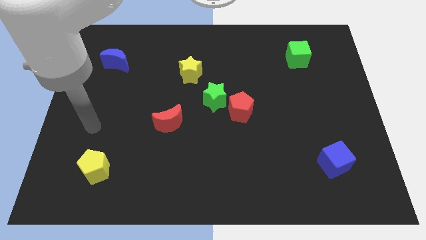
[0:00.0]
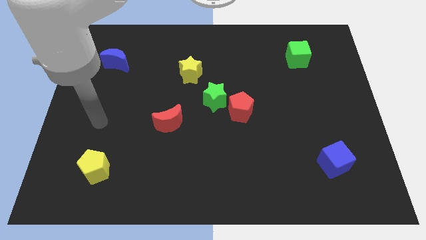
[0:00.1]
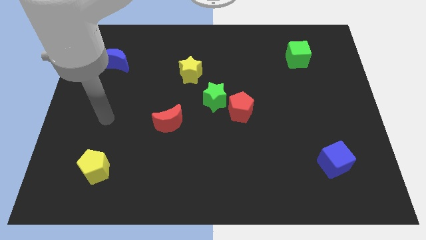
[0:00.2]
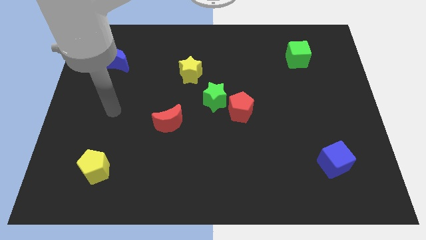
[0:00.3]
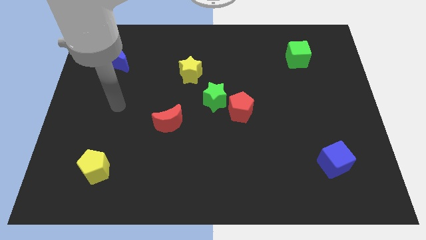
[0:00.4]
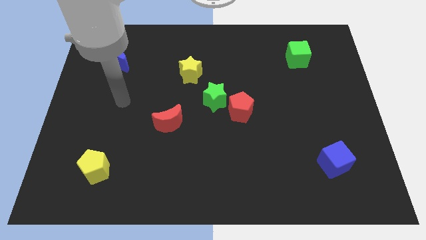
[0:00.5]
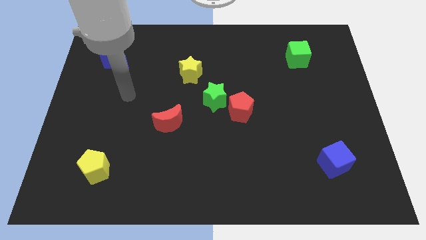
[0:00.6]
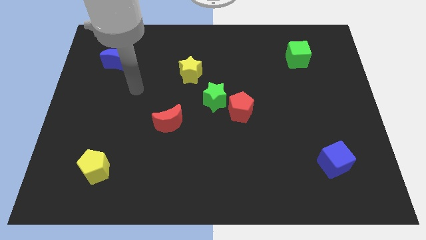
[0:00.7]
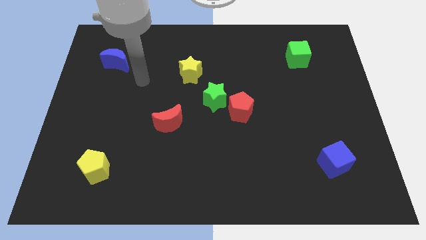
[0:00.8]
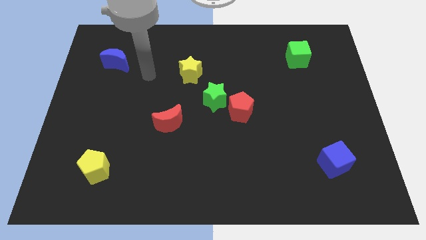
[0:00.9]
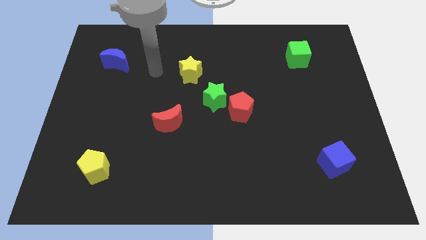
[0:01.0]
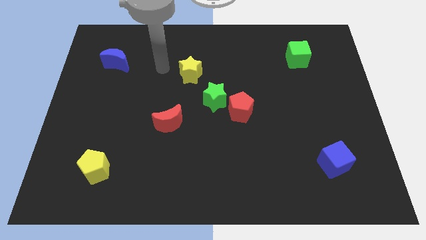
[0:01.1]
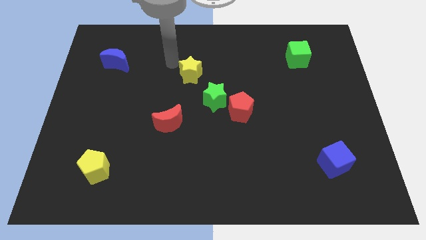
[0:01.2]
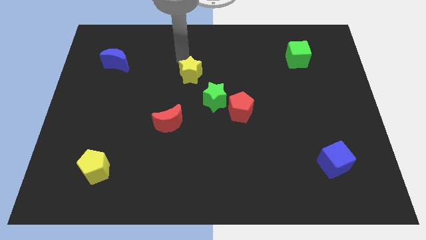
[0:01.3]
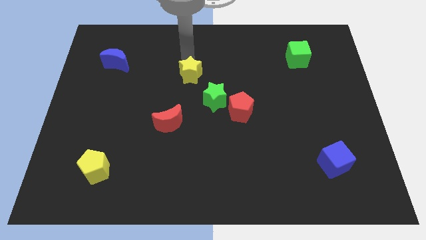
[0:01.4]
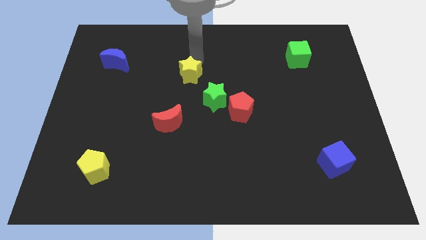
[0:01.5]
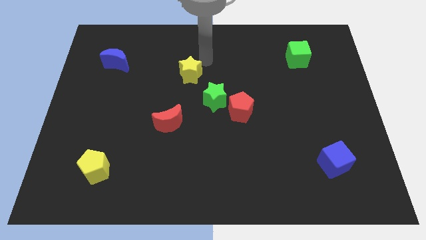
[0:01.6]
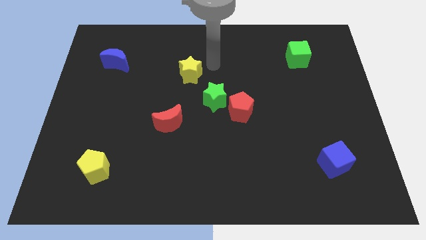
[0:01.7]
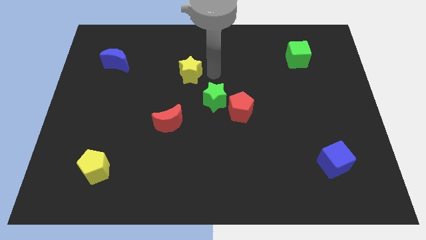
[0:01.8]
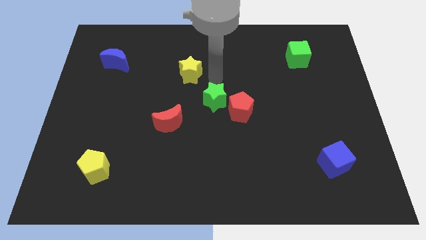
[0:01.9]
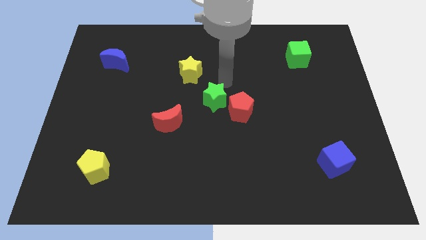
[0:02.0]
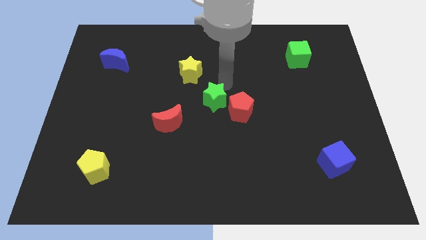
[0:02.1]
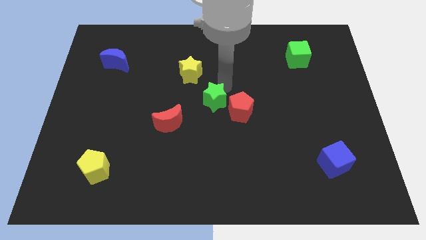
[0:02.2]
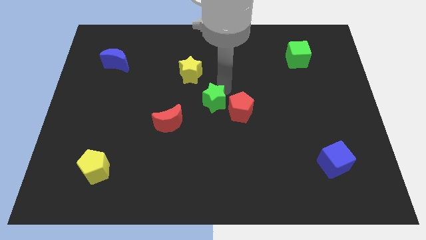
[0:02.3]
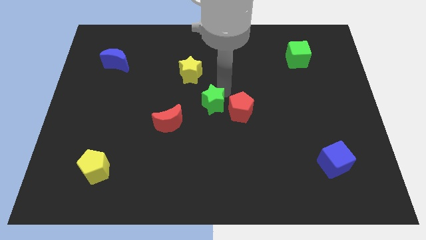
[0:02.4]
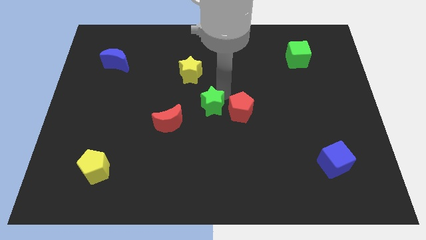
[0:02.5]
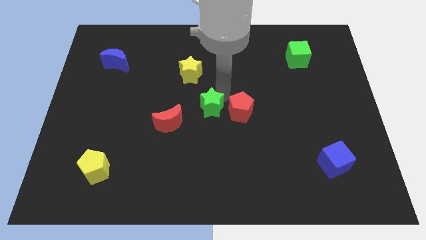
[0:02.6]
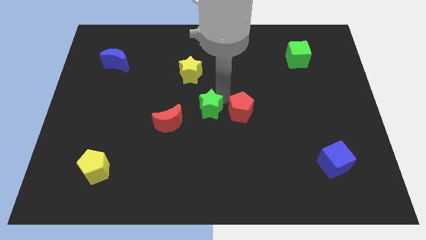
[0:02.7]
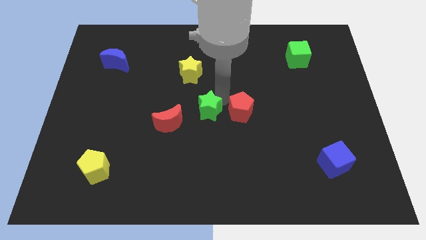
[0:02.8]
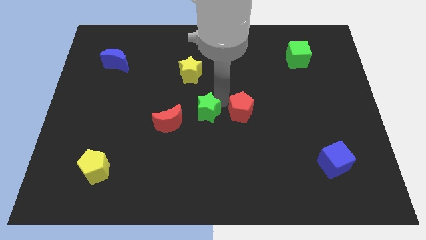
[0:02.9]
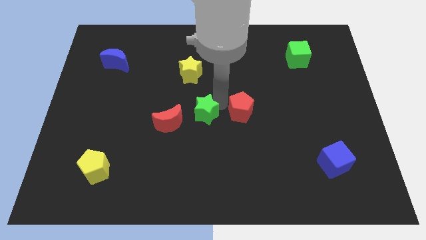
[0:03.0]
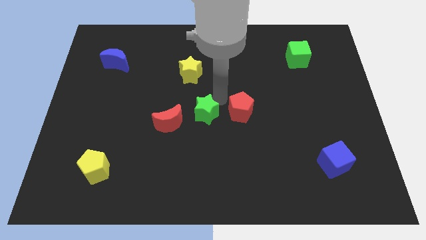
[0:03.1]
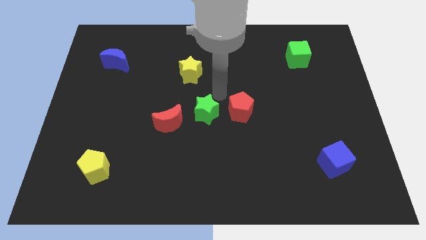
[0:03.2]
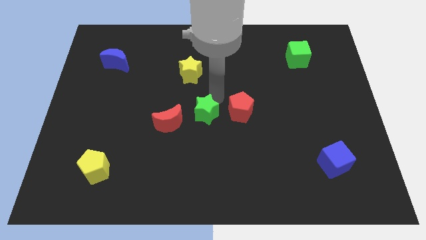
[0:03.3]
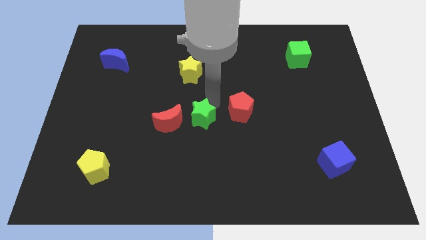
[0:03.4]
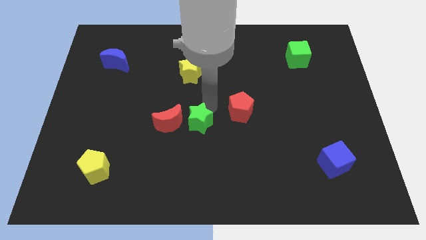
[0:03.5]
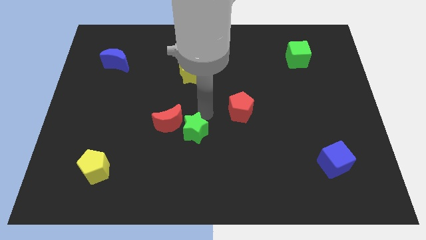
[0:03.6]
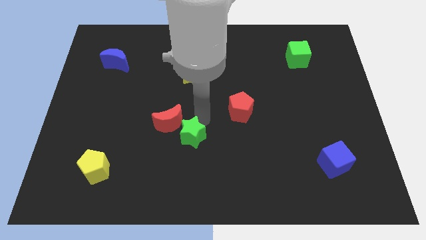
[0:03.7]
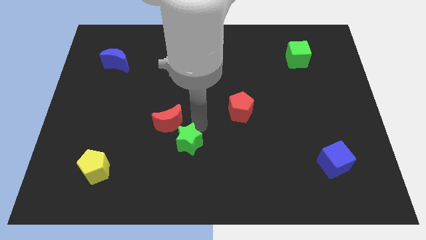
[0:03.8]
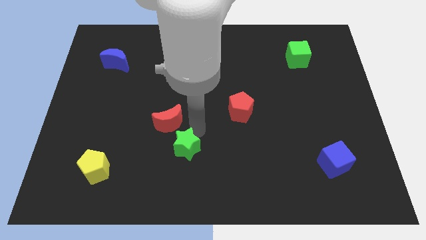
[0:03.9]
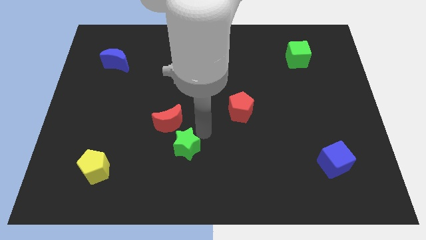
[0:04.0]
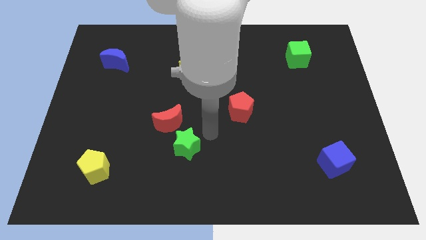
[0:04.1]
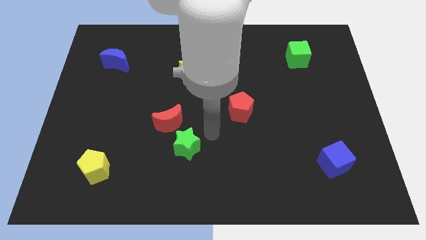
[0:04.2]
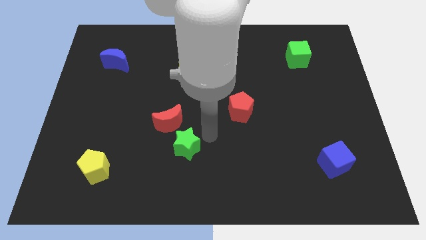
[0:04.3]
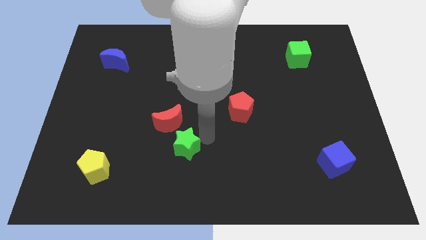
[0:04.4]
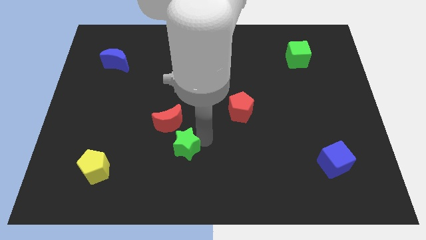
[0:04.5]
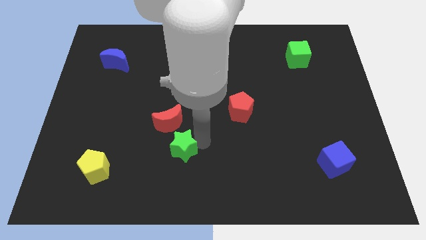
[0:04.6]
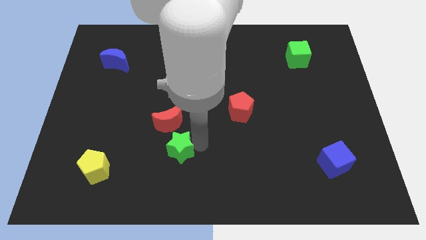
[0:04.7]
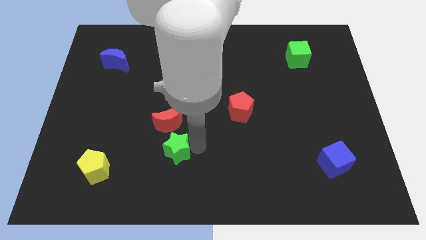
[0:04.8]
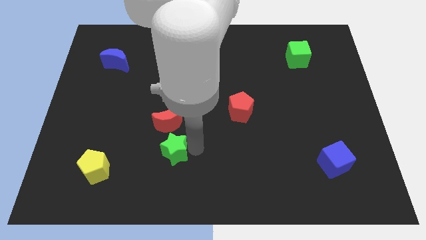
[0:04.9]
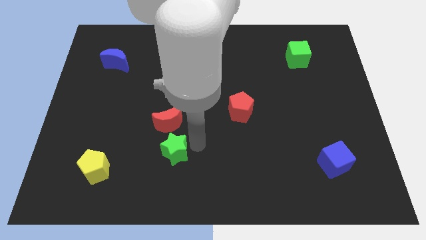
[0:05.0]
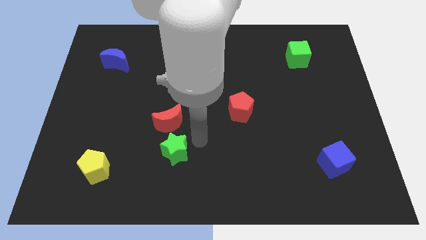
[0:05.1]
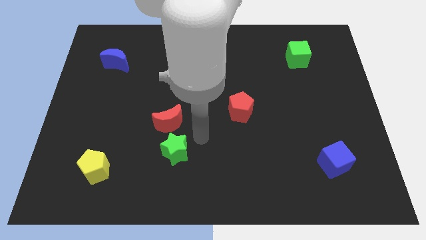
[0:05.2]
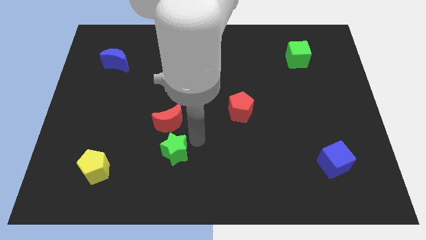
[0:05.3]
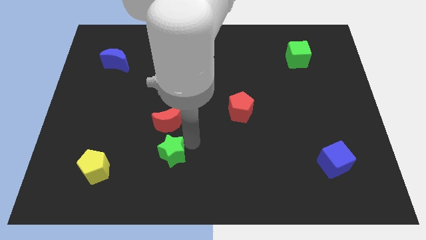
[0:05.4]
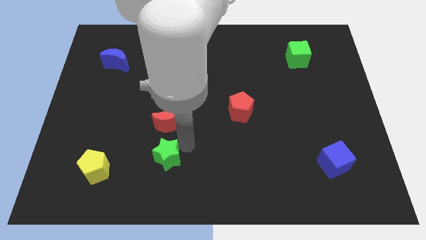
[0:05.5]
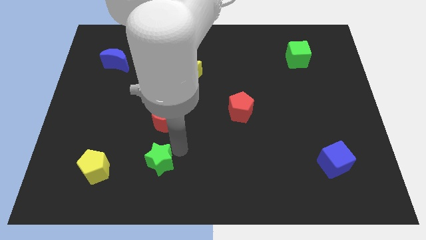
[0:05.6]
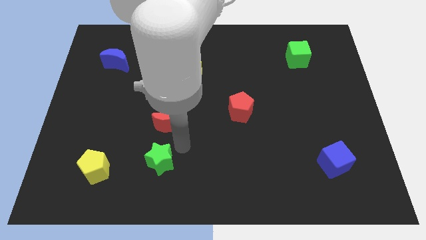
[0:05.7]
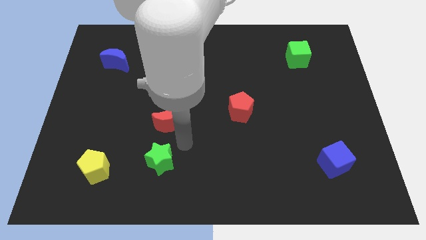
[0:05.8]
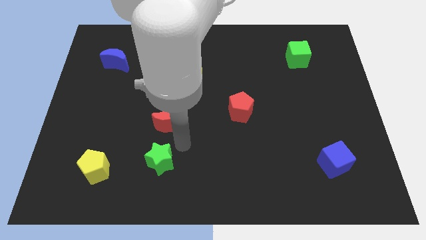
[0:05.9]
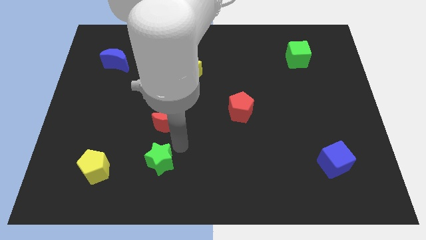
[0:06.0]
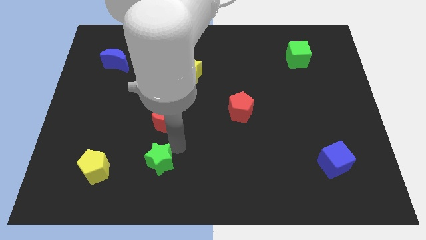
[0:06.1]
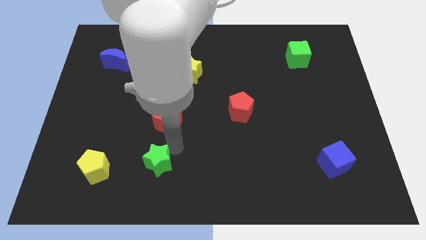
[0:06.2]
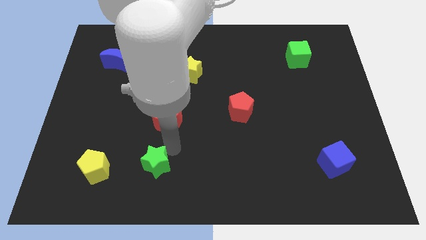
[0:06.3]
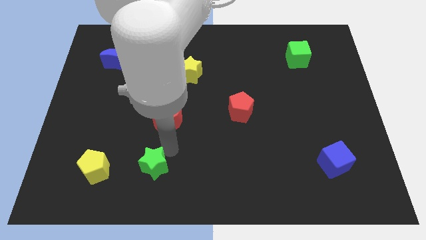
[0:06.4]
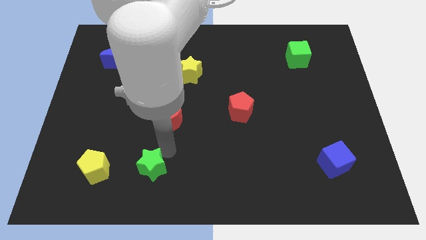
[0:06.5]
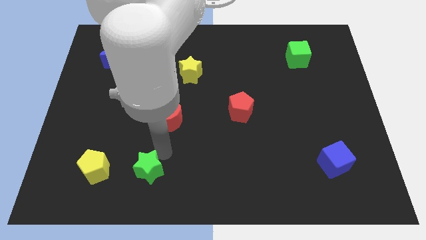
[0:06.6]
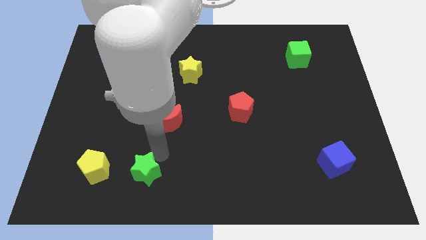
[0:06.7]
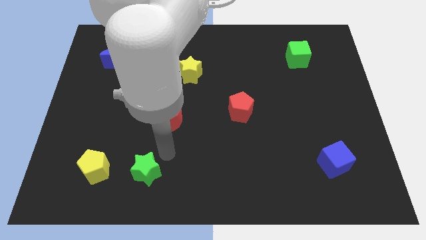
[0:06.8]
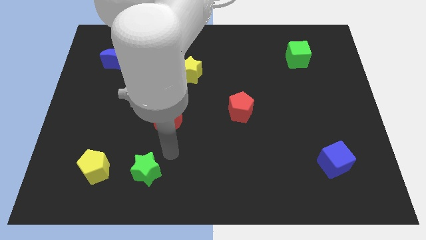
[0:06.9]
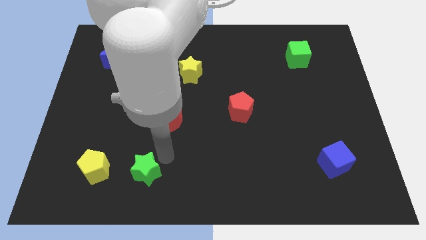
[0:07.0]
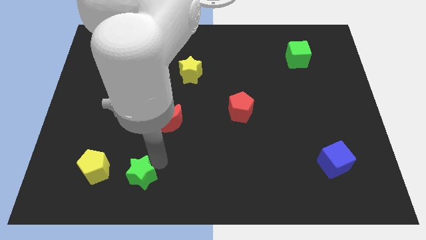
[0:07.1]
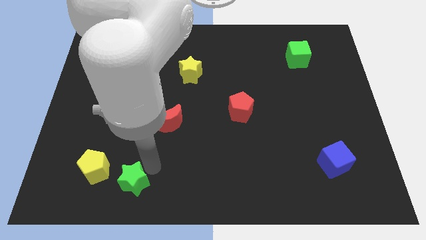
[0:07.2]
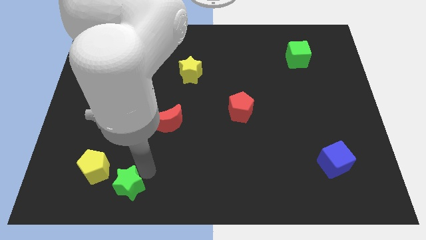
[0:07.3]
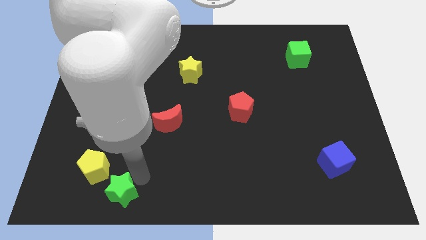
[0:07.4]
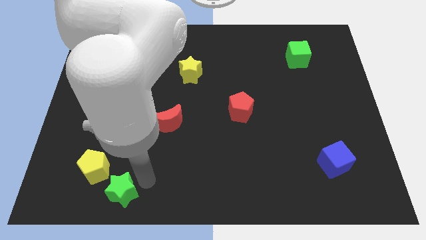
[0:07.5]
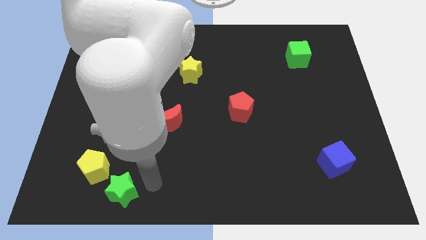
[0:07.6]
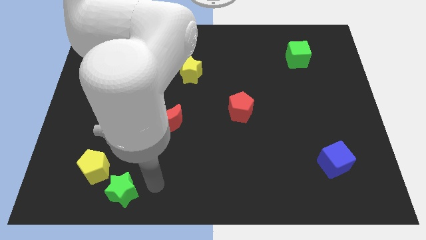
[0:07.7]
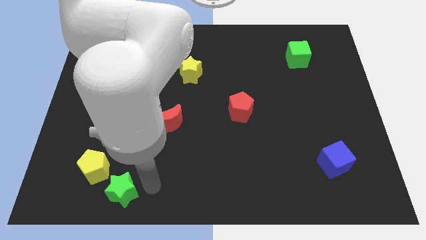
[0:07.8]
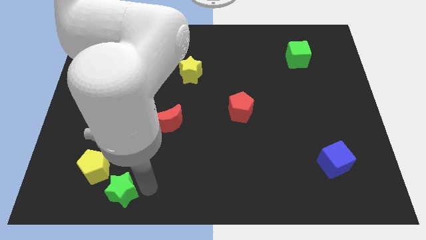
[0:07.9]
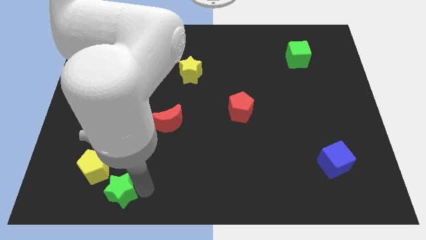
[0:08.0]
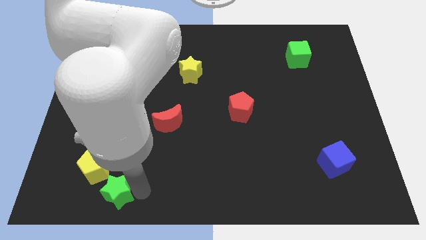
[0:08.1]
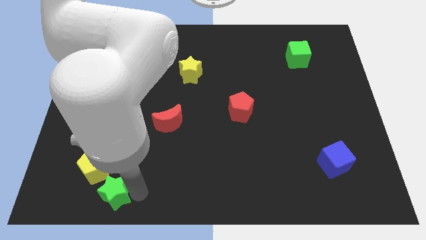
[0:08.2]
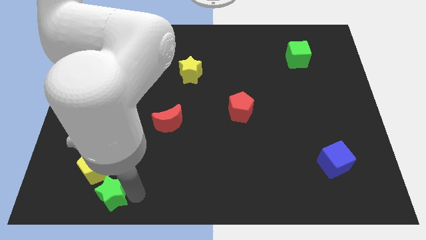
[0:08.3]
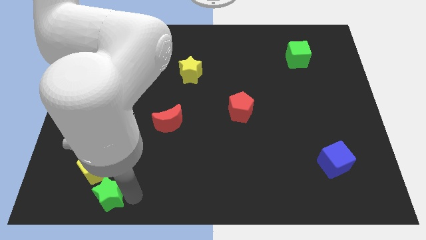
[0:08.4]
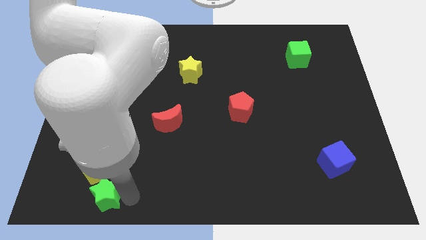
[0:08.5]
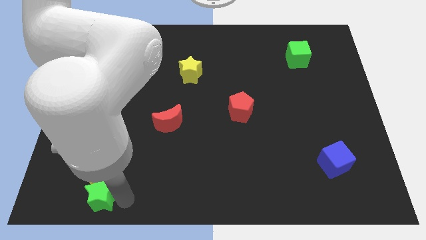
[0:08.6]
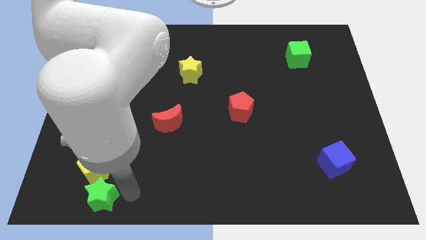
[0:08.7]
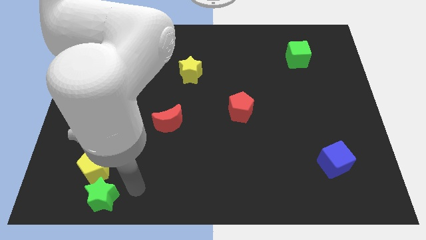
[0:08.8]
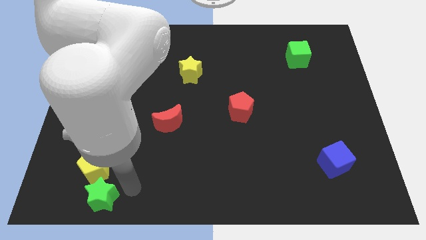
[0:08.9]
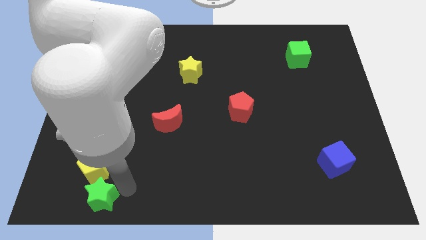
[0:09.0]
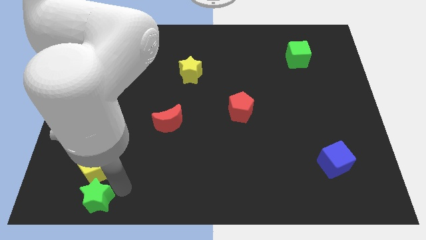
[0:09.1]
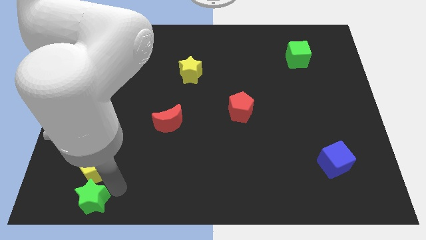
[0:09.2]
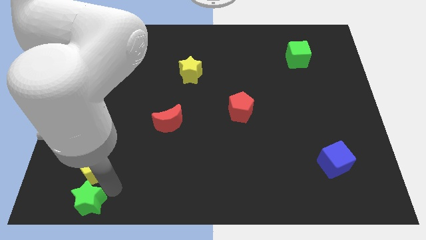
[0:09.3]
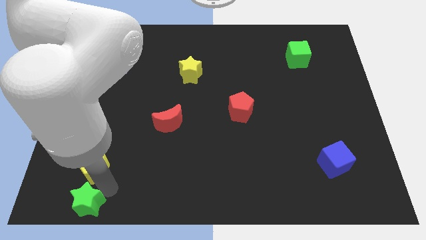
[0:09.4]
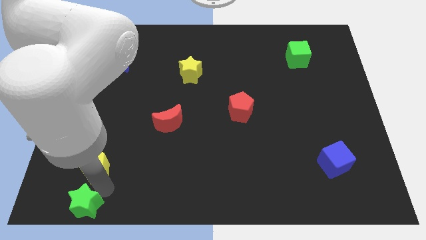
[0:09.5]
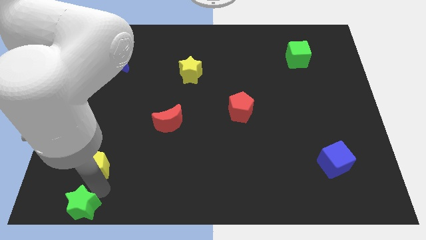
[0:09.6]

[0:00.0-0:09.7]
push the green star to the lower left corner
